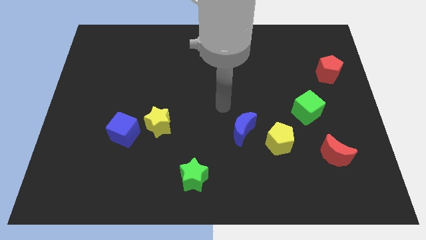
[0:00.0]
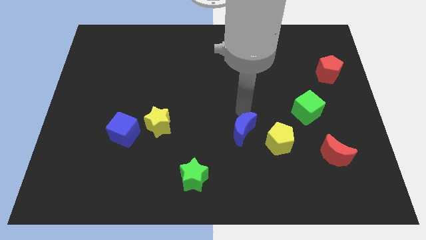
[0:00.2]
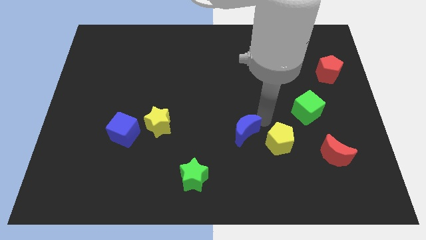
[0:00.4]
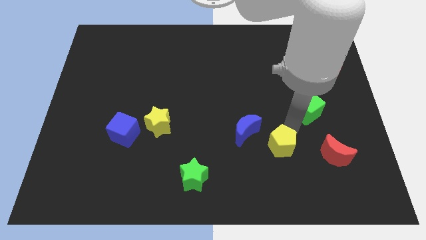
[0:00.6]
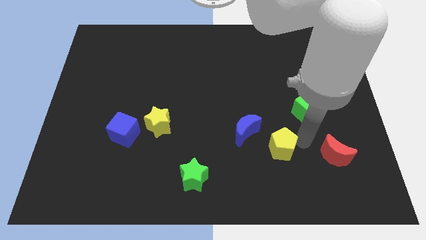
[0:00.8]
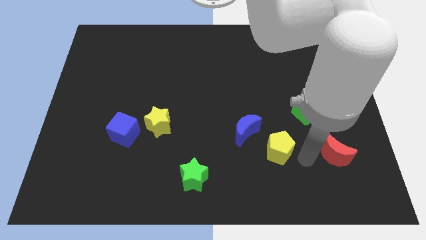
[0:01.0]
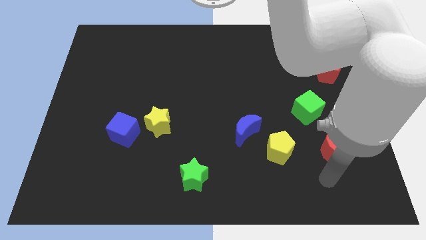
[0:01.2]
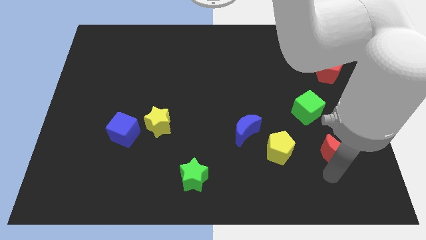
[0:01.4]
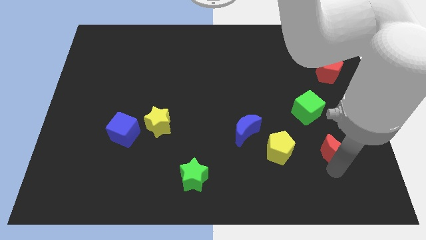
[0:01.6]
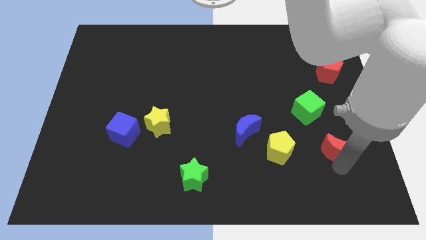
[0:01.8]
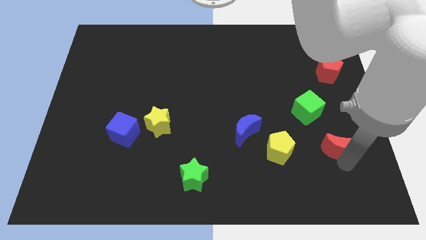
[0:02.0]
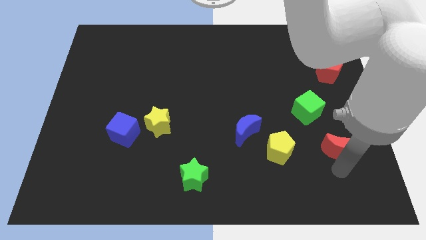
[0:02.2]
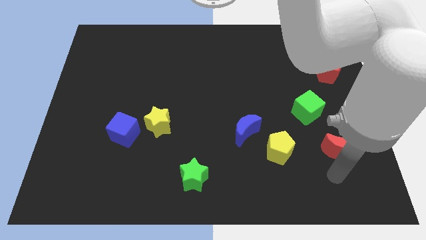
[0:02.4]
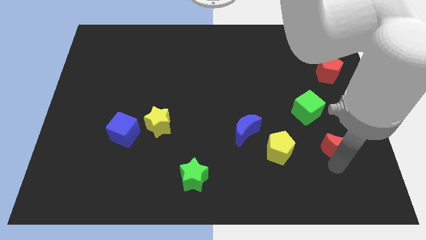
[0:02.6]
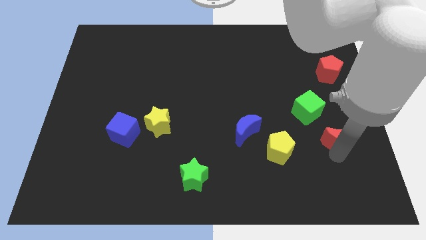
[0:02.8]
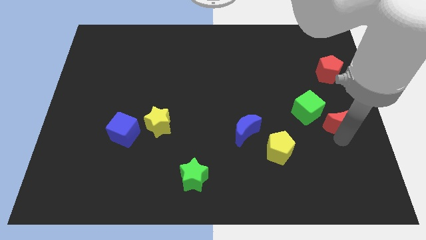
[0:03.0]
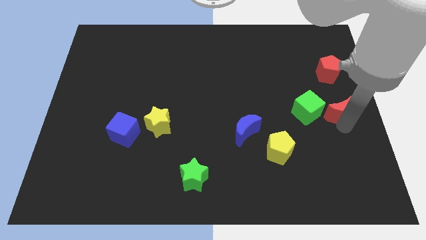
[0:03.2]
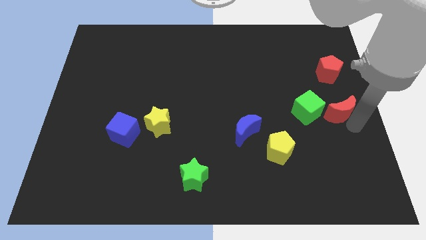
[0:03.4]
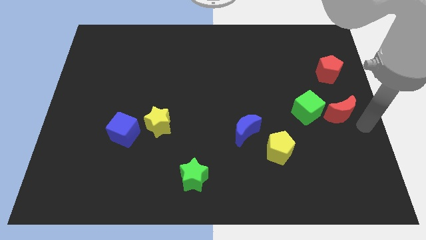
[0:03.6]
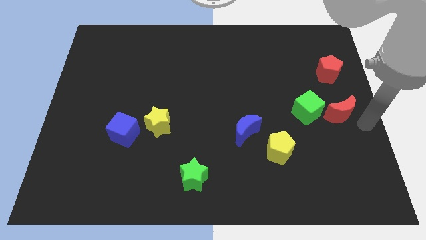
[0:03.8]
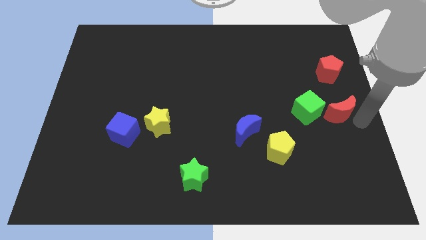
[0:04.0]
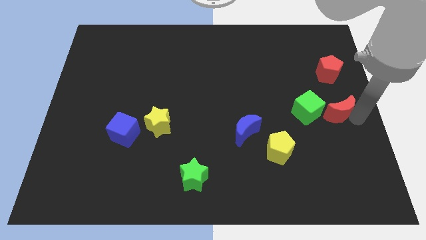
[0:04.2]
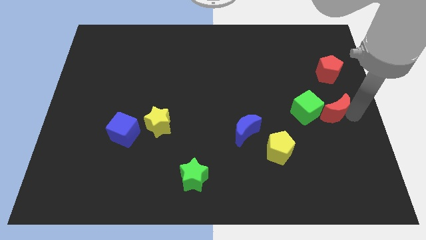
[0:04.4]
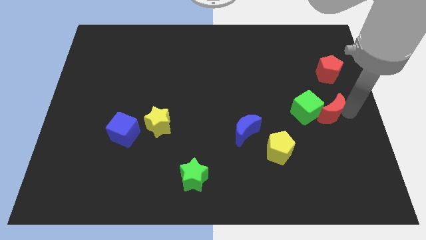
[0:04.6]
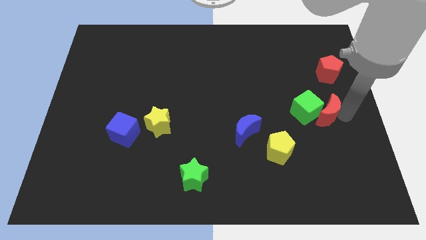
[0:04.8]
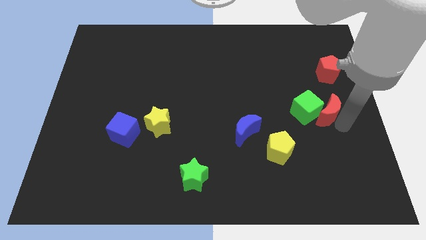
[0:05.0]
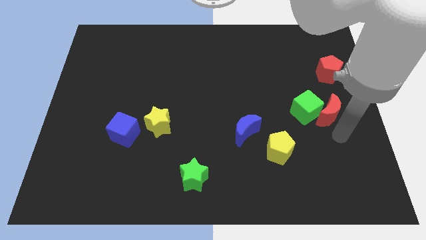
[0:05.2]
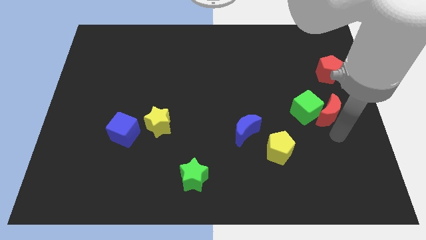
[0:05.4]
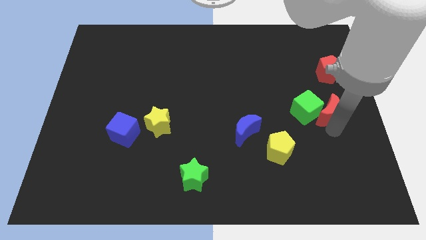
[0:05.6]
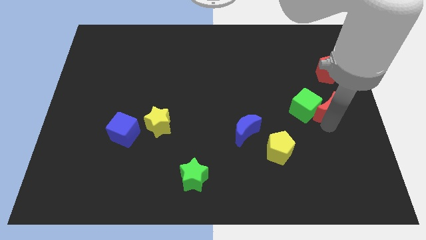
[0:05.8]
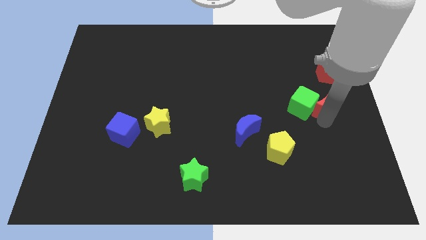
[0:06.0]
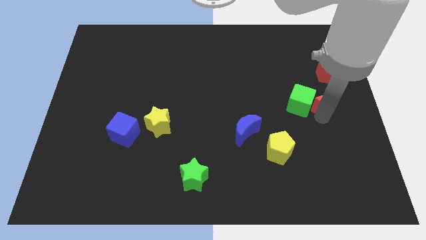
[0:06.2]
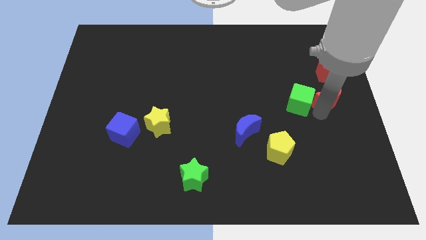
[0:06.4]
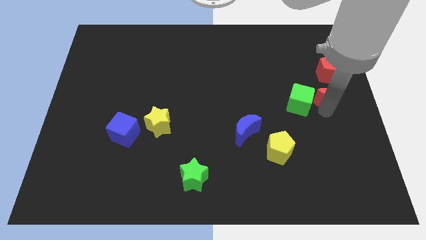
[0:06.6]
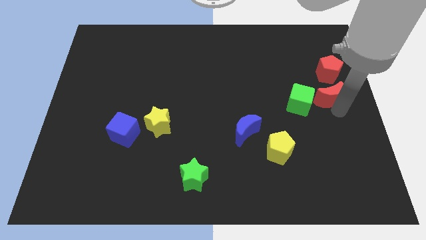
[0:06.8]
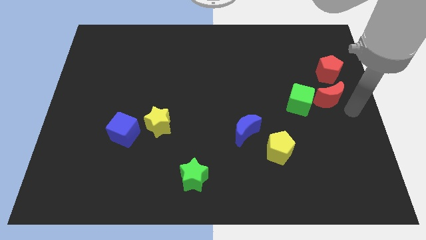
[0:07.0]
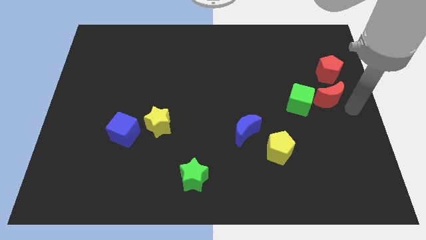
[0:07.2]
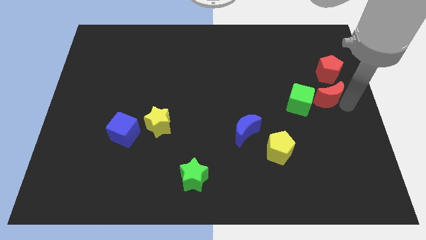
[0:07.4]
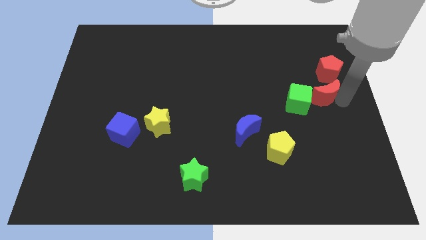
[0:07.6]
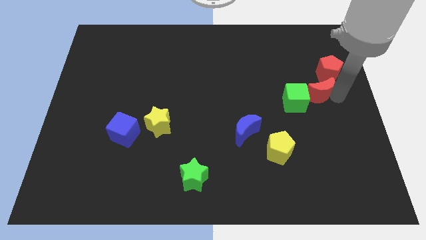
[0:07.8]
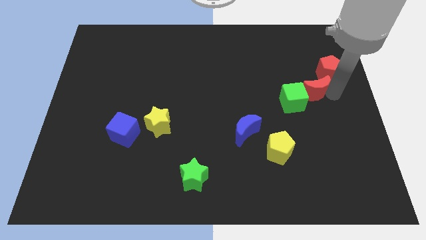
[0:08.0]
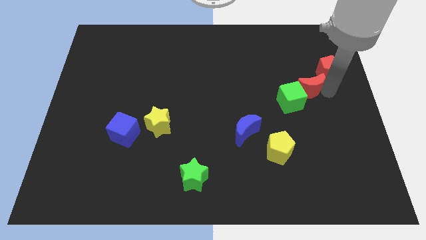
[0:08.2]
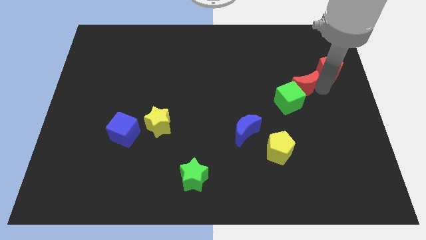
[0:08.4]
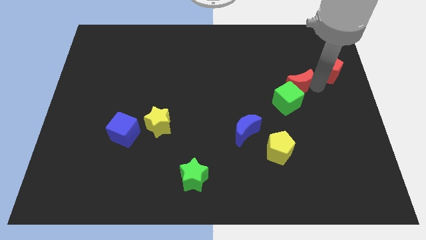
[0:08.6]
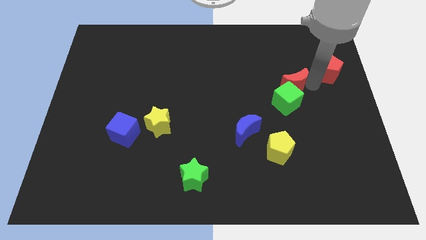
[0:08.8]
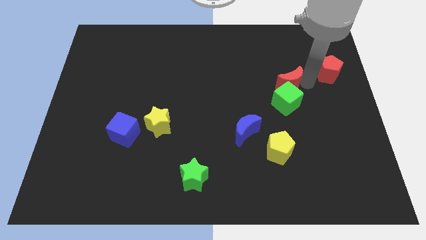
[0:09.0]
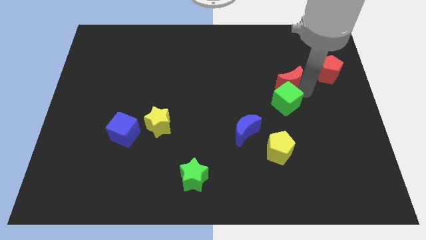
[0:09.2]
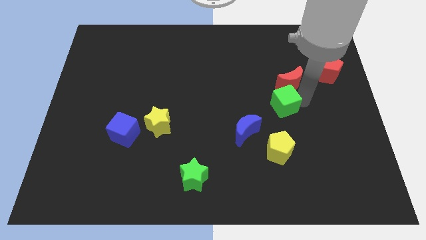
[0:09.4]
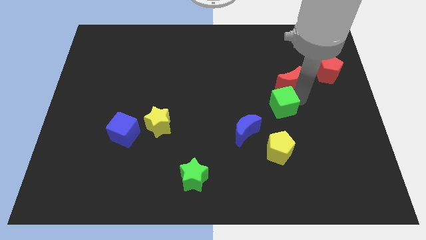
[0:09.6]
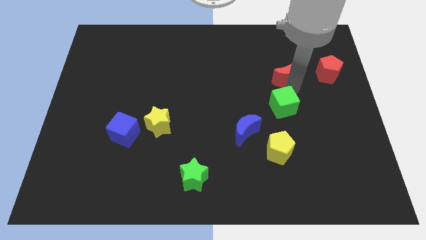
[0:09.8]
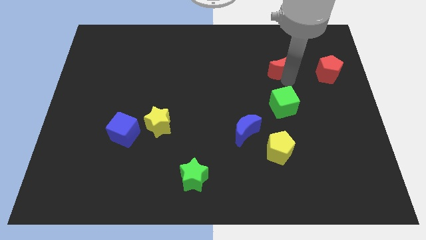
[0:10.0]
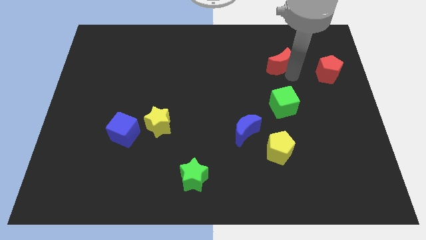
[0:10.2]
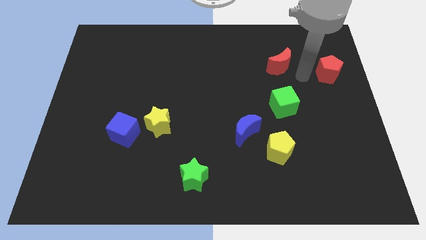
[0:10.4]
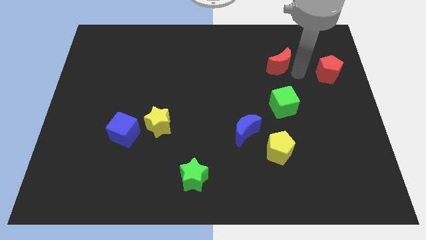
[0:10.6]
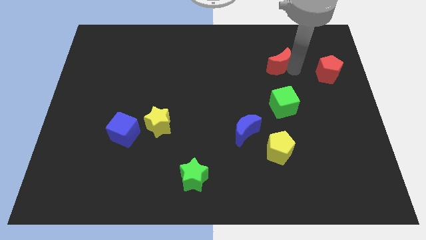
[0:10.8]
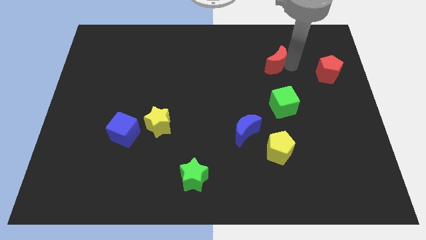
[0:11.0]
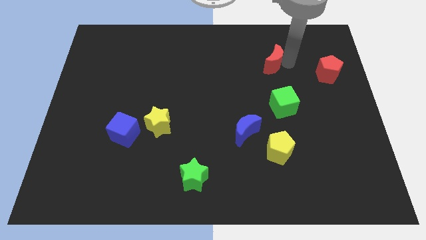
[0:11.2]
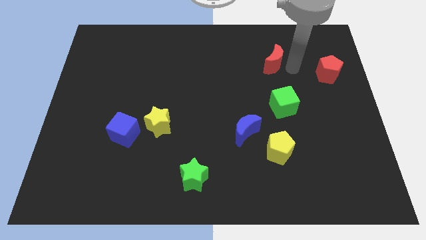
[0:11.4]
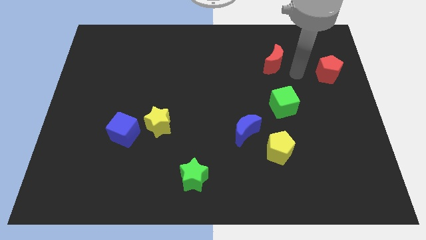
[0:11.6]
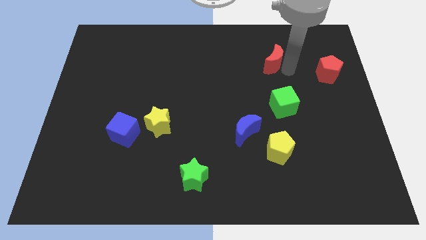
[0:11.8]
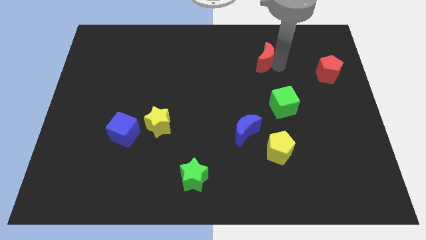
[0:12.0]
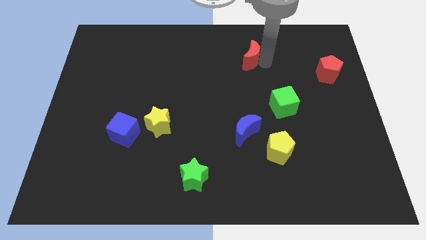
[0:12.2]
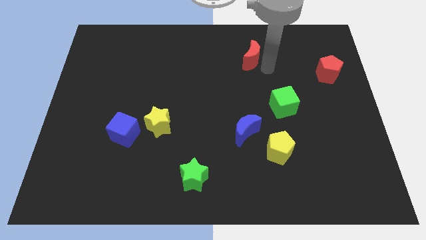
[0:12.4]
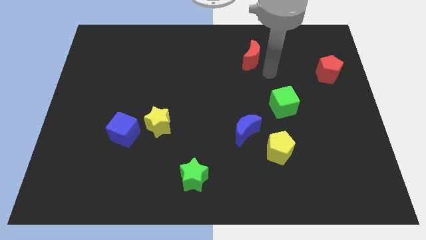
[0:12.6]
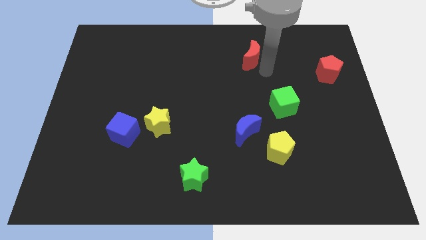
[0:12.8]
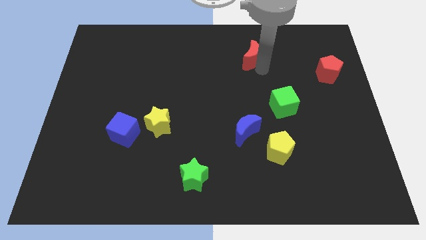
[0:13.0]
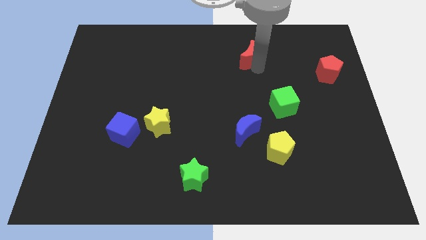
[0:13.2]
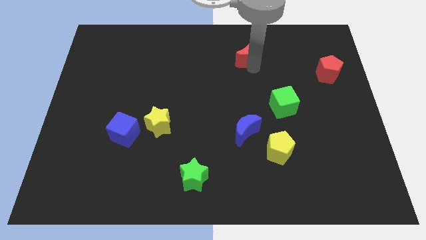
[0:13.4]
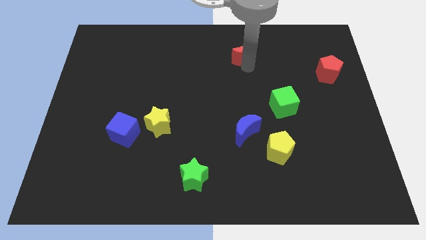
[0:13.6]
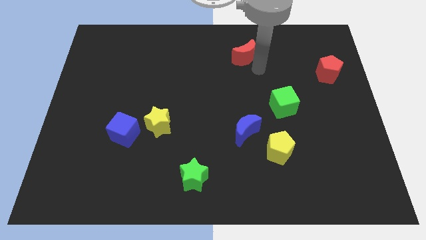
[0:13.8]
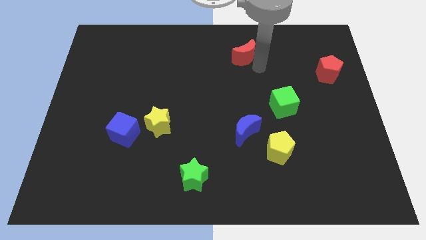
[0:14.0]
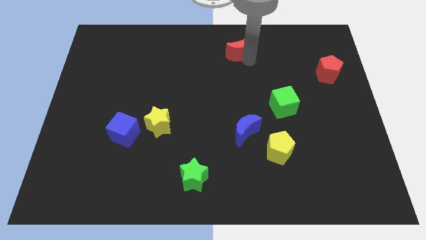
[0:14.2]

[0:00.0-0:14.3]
push the red moon to the towards your base

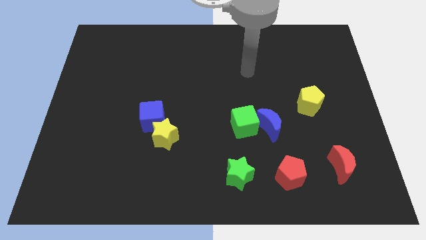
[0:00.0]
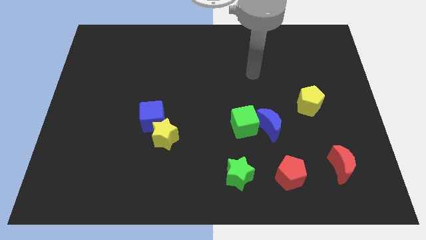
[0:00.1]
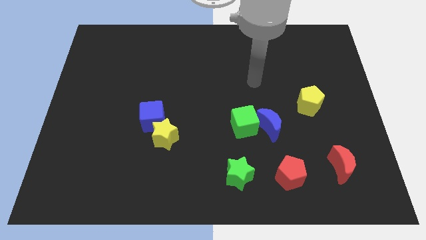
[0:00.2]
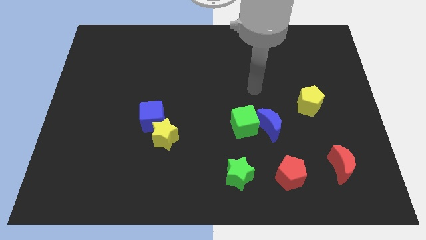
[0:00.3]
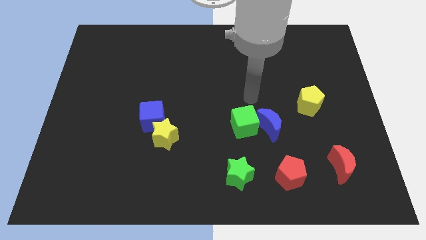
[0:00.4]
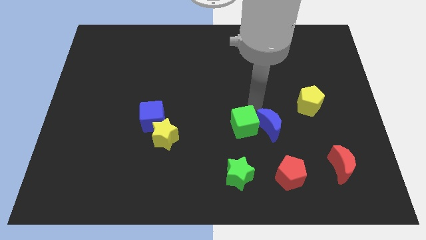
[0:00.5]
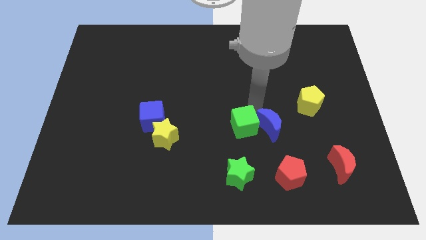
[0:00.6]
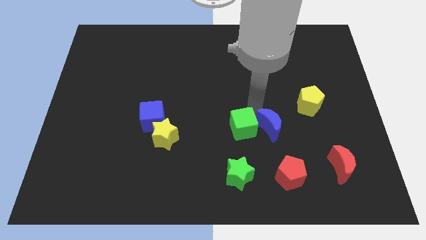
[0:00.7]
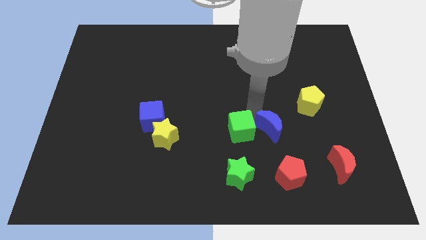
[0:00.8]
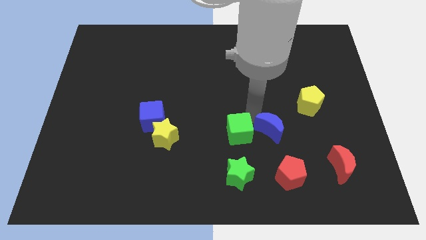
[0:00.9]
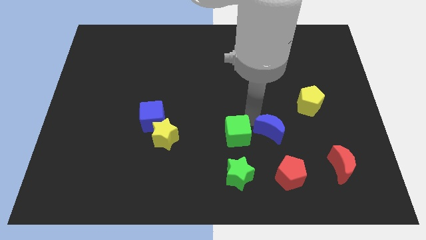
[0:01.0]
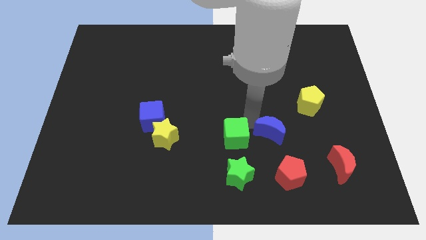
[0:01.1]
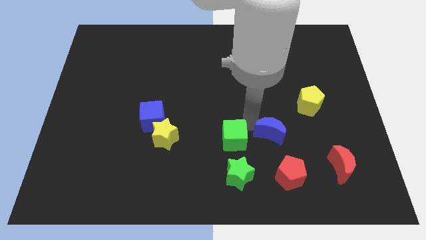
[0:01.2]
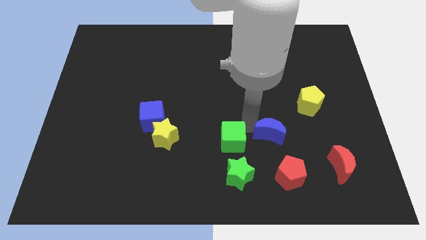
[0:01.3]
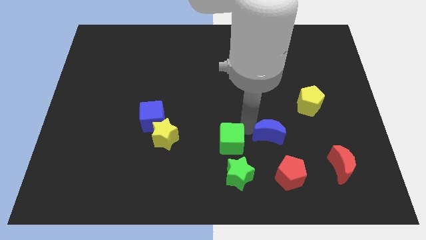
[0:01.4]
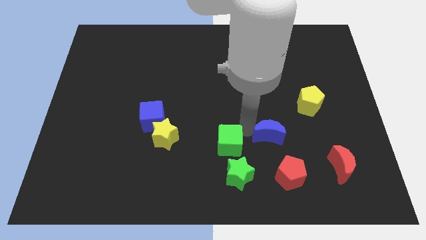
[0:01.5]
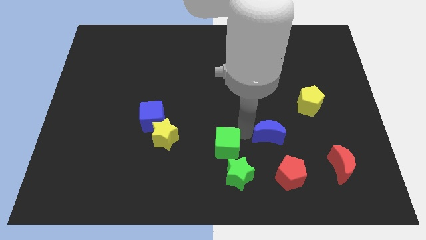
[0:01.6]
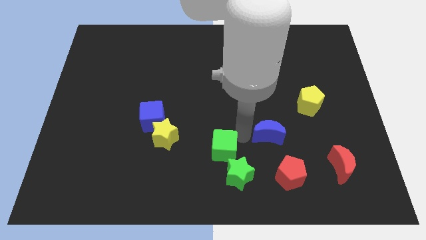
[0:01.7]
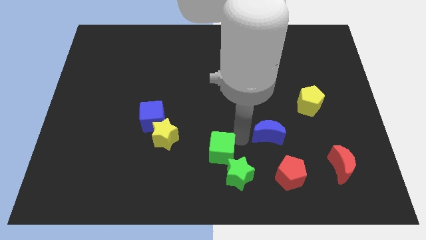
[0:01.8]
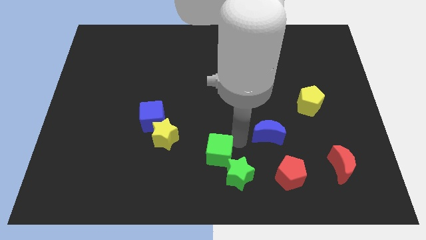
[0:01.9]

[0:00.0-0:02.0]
move the green cube to the bottom
